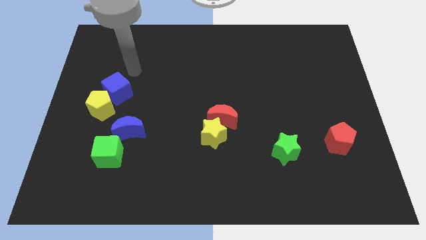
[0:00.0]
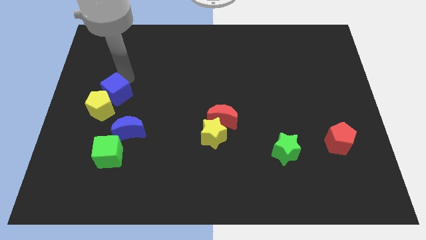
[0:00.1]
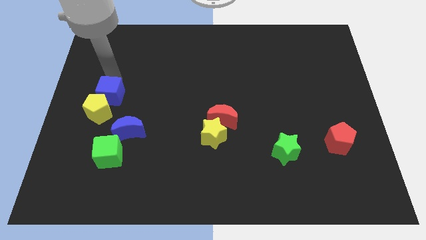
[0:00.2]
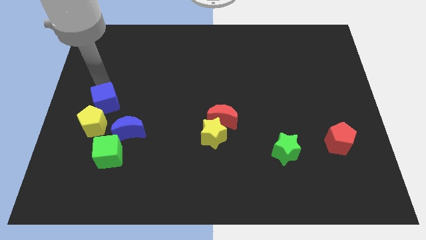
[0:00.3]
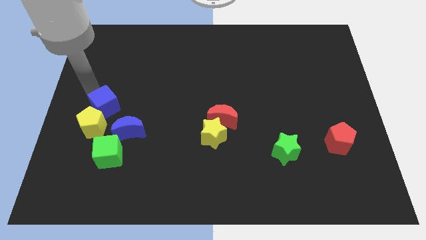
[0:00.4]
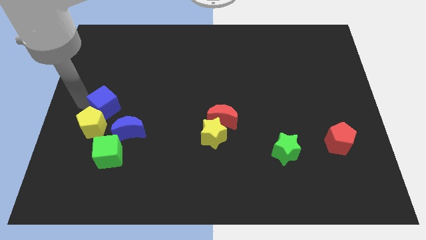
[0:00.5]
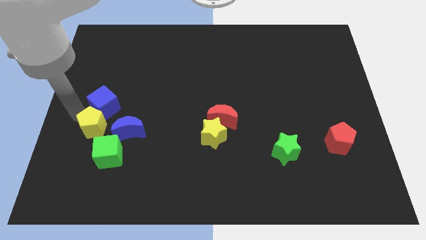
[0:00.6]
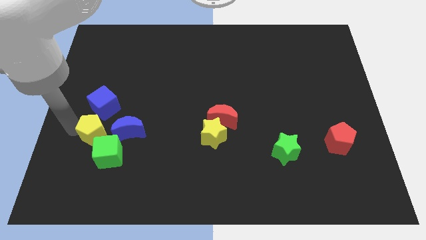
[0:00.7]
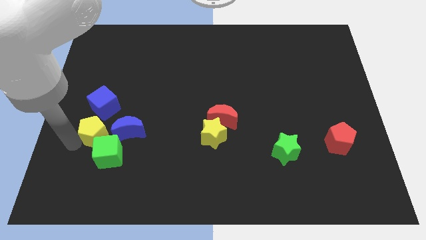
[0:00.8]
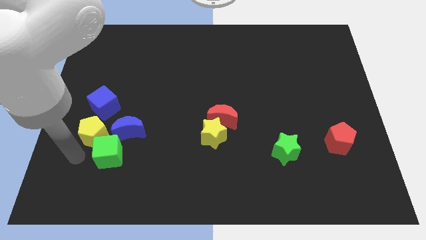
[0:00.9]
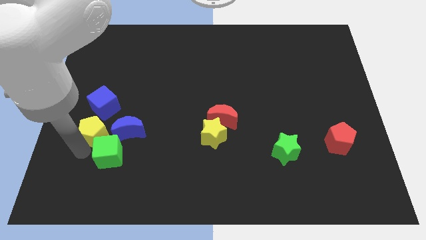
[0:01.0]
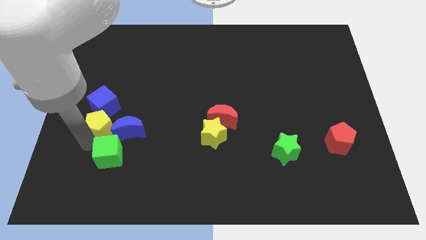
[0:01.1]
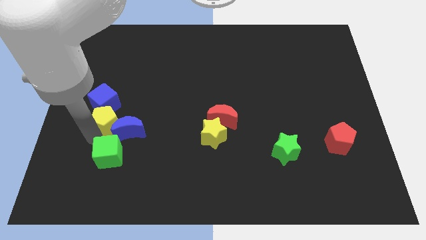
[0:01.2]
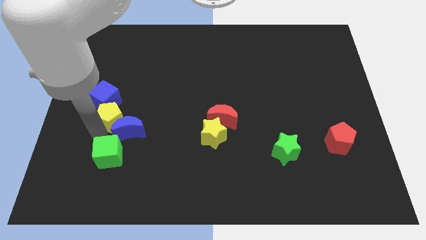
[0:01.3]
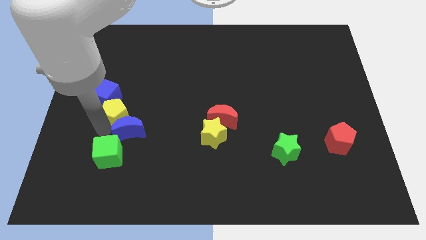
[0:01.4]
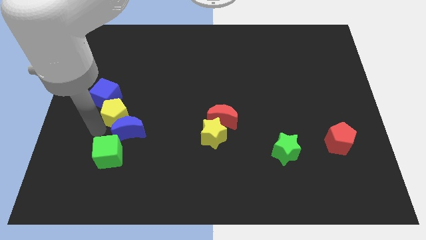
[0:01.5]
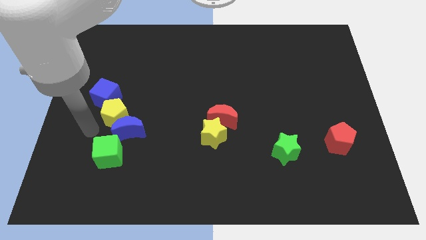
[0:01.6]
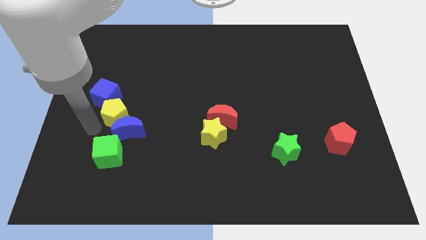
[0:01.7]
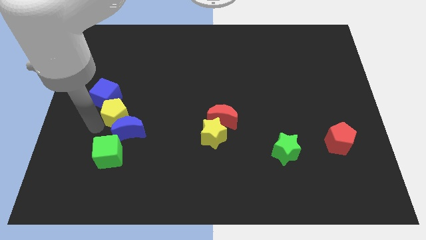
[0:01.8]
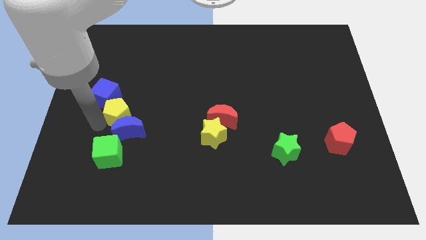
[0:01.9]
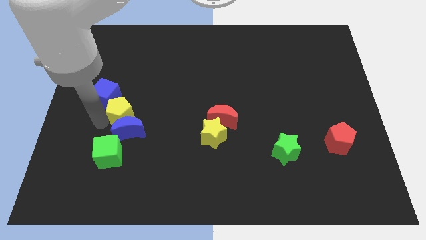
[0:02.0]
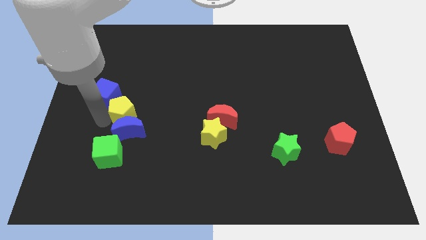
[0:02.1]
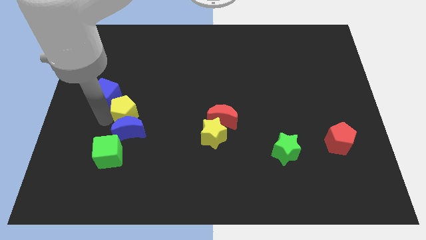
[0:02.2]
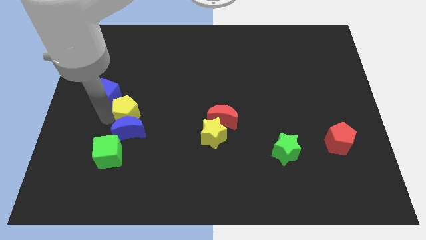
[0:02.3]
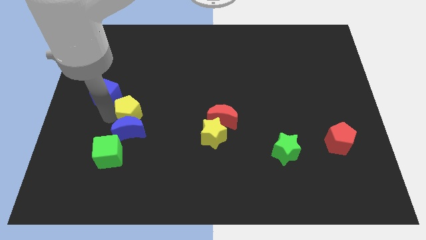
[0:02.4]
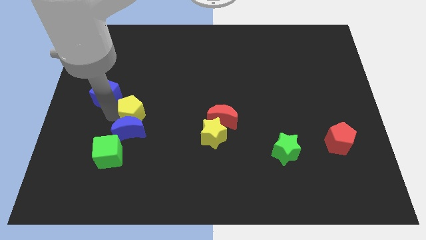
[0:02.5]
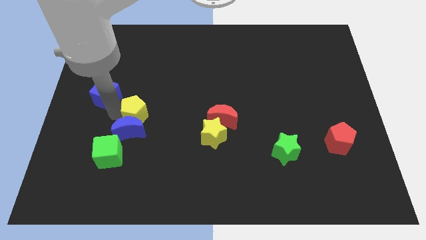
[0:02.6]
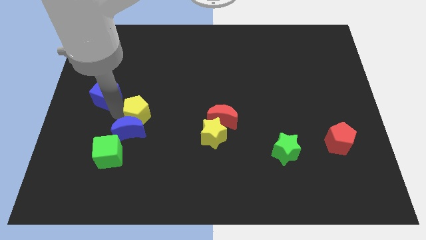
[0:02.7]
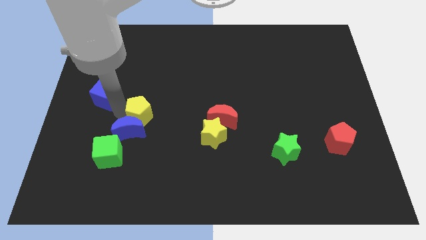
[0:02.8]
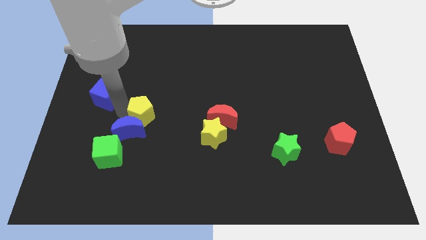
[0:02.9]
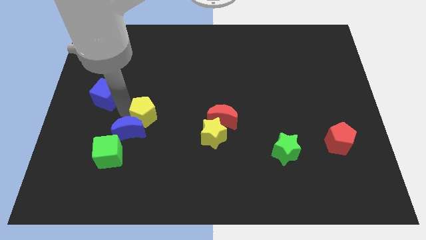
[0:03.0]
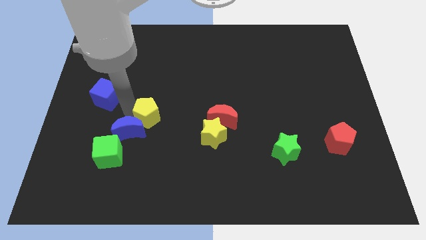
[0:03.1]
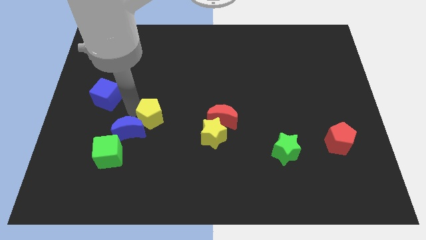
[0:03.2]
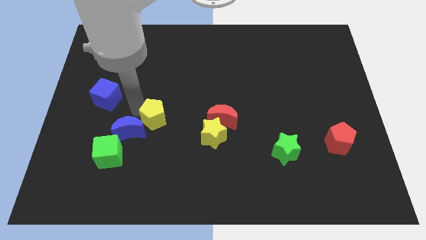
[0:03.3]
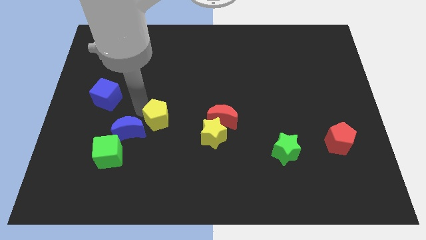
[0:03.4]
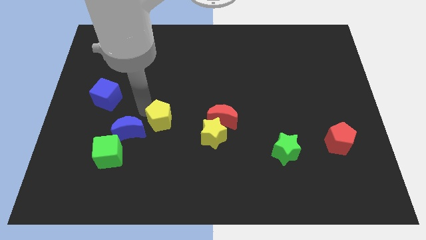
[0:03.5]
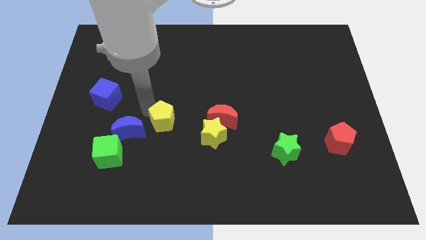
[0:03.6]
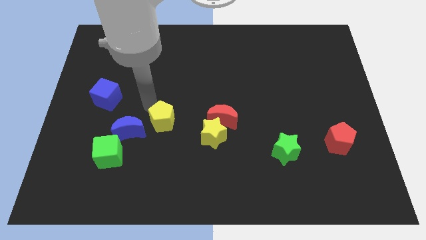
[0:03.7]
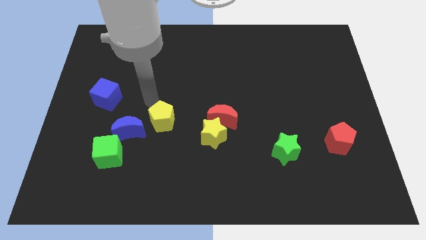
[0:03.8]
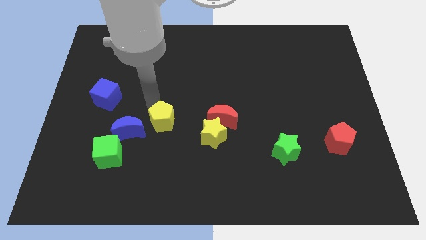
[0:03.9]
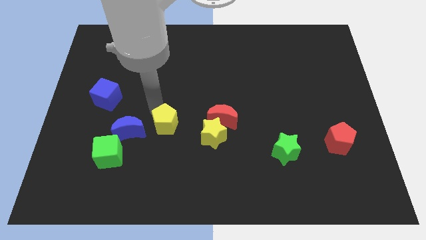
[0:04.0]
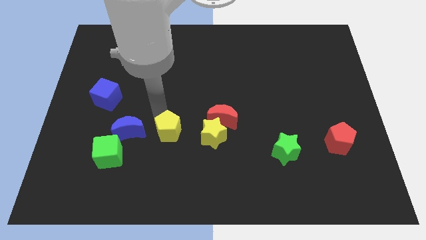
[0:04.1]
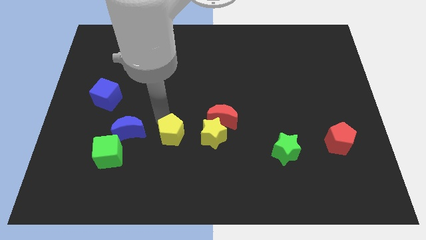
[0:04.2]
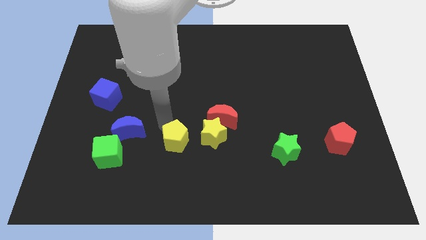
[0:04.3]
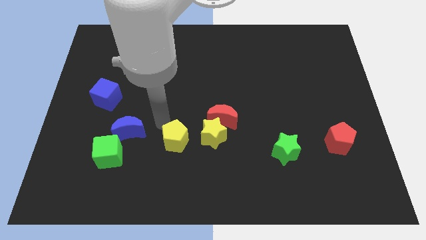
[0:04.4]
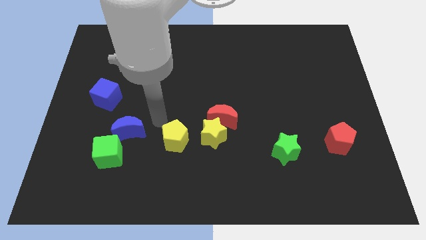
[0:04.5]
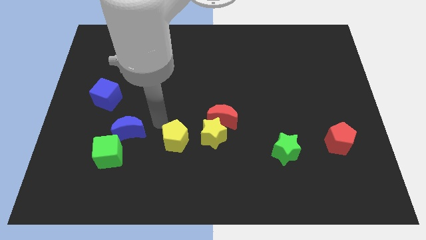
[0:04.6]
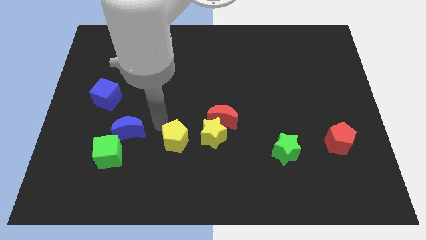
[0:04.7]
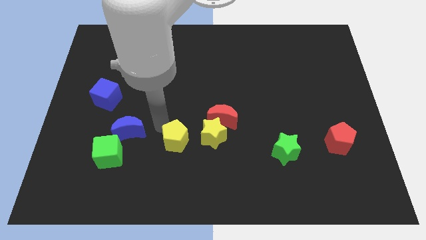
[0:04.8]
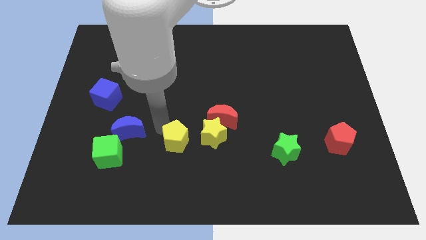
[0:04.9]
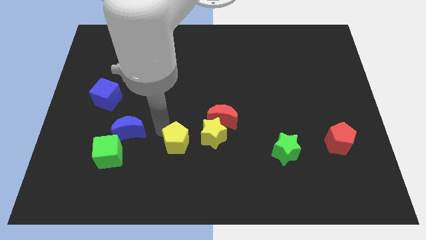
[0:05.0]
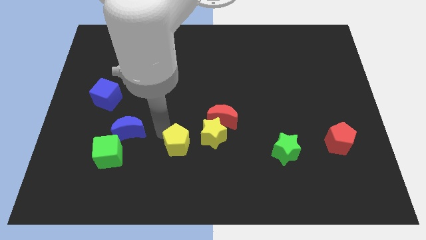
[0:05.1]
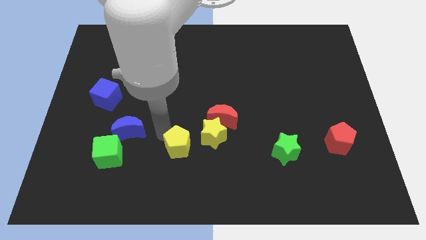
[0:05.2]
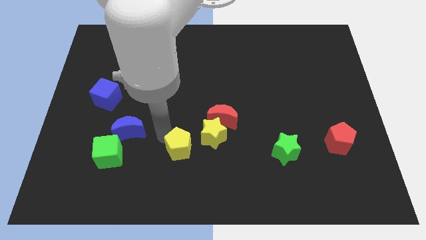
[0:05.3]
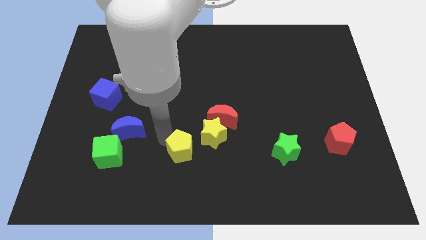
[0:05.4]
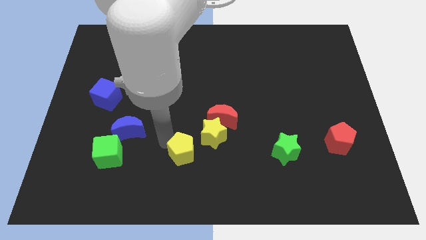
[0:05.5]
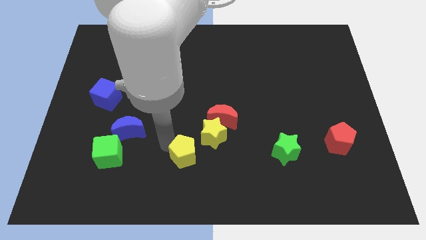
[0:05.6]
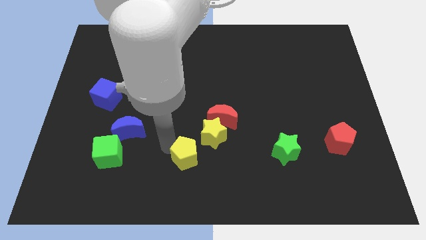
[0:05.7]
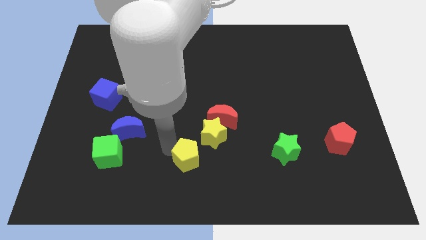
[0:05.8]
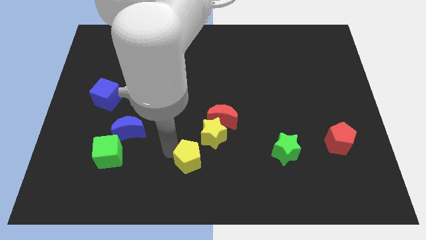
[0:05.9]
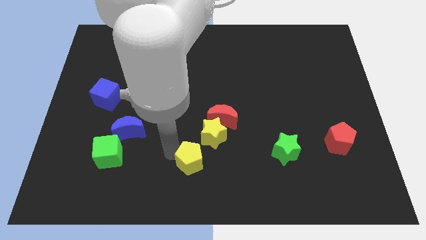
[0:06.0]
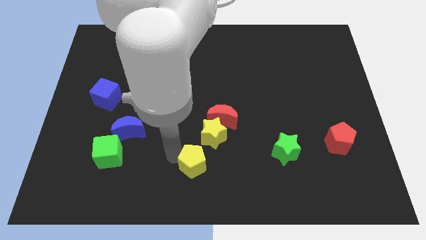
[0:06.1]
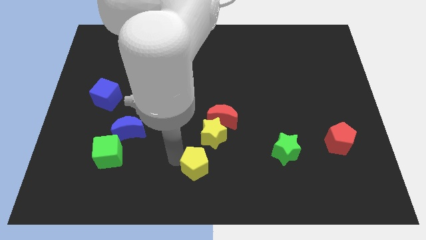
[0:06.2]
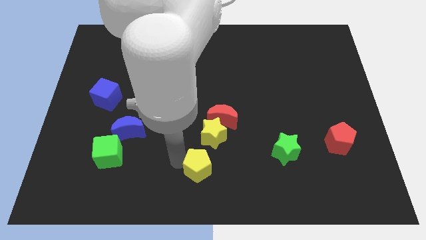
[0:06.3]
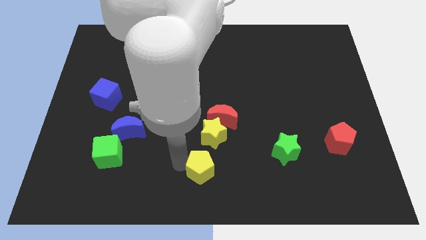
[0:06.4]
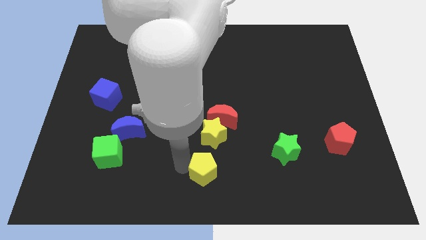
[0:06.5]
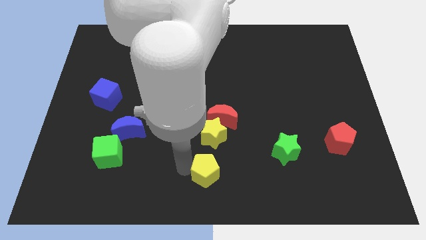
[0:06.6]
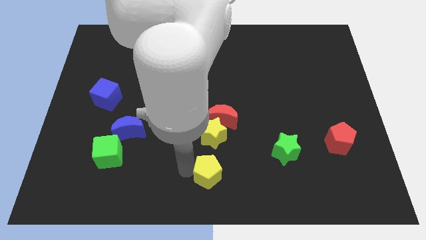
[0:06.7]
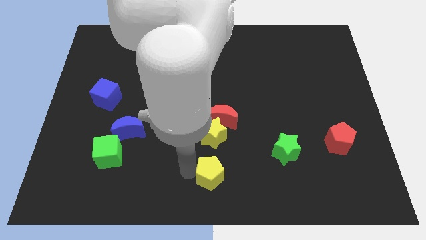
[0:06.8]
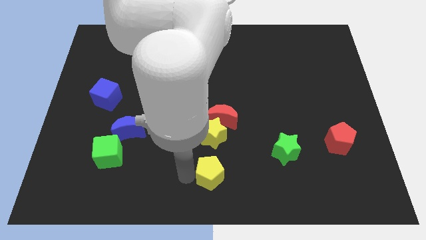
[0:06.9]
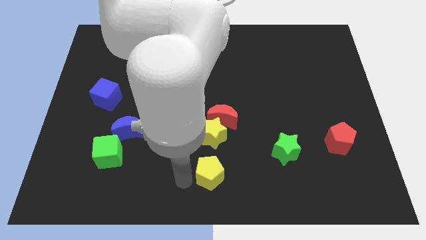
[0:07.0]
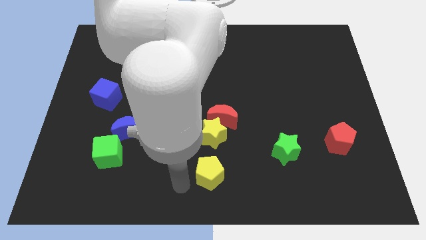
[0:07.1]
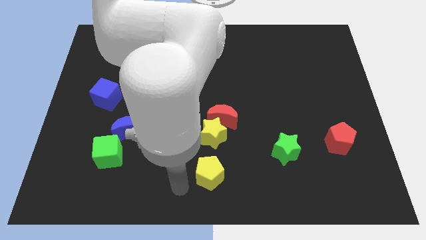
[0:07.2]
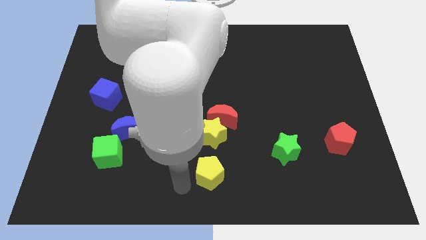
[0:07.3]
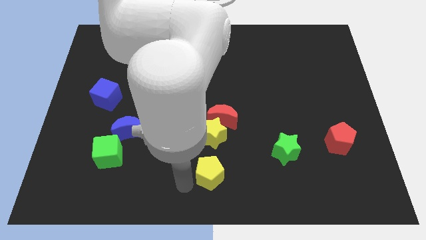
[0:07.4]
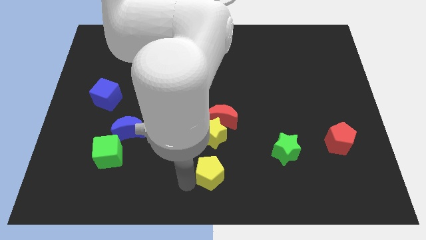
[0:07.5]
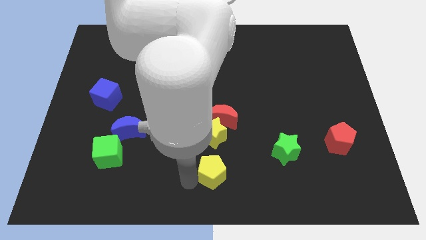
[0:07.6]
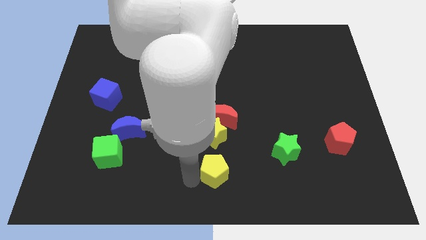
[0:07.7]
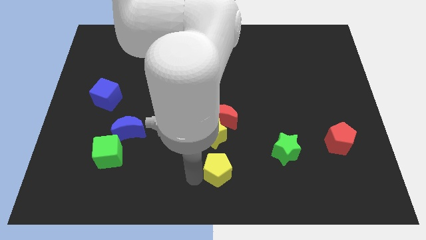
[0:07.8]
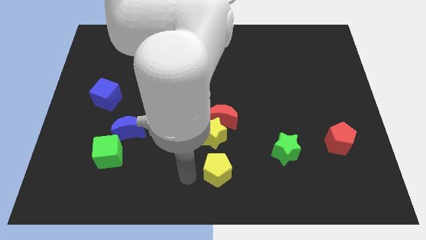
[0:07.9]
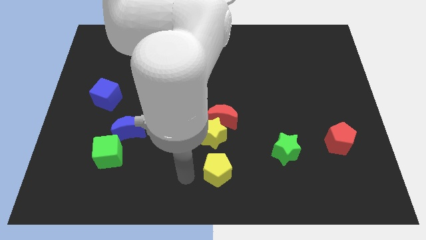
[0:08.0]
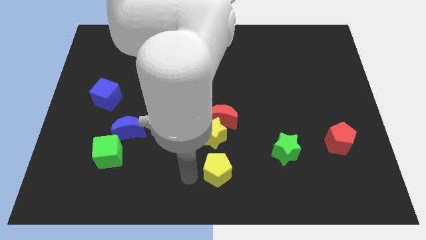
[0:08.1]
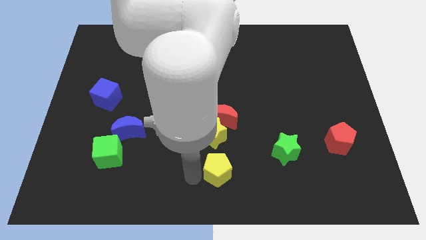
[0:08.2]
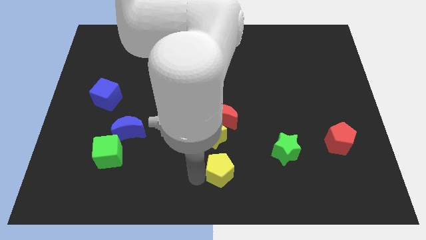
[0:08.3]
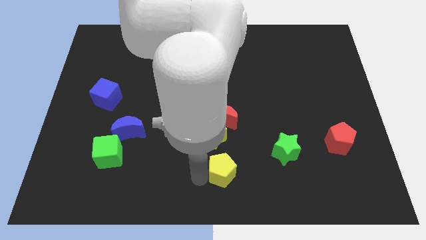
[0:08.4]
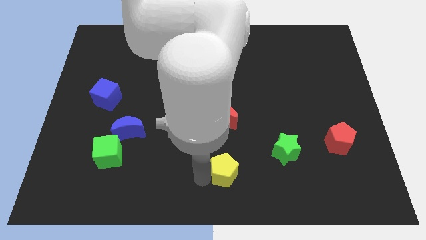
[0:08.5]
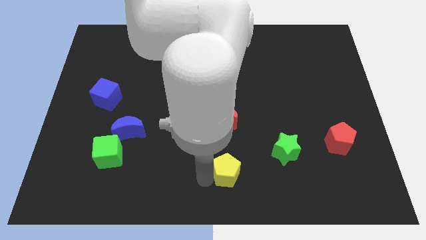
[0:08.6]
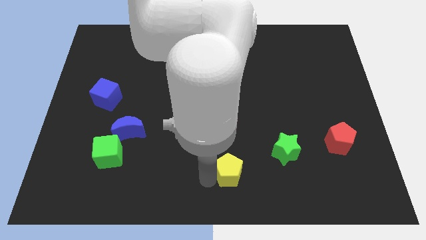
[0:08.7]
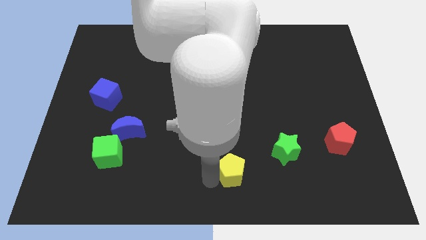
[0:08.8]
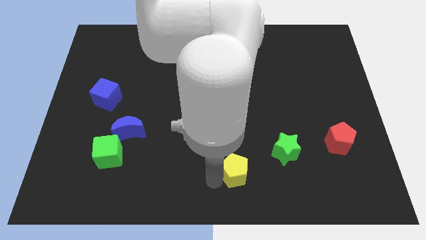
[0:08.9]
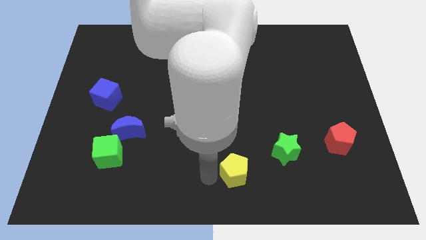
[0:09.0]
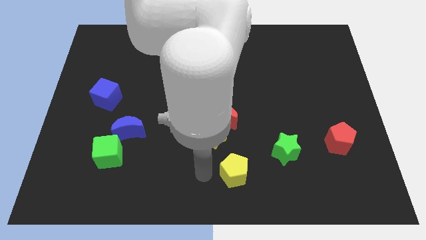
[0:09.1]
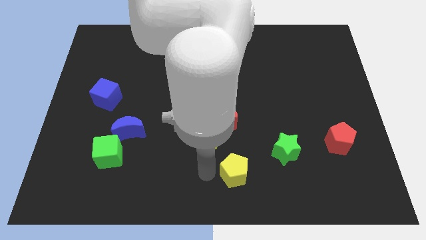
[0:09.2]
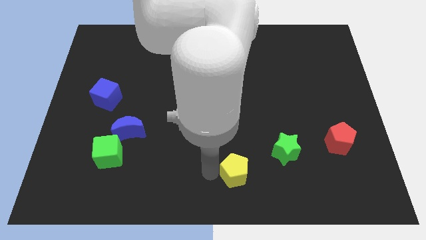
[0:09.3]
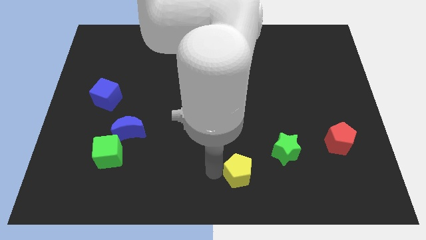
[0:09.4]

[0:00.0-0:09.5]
slide the yellow pentagon to the bottom left side of the green star
